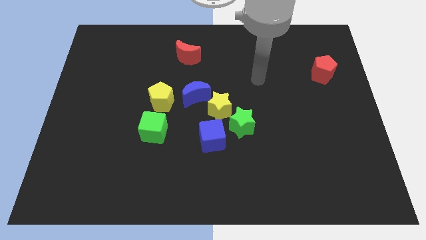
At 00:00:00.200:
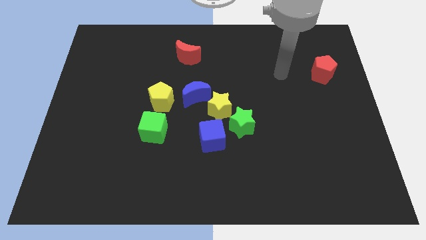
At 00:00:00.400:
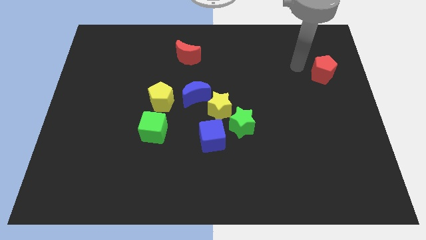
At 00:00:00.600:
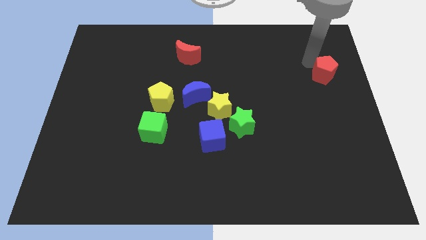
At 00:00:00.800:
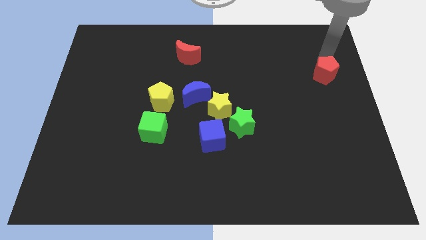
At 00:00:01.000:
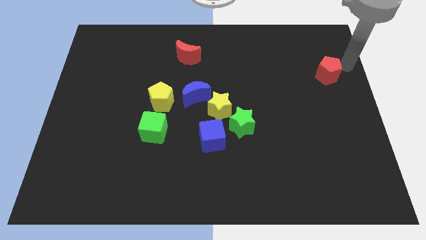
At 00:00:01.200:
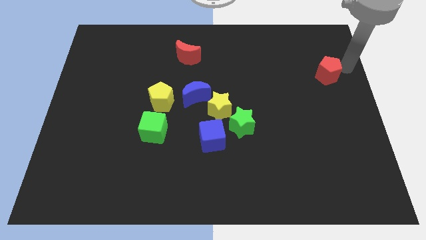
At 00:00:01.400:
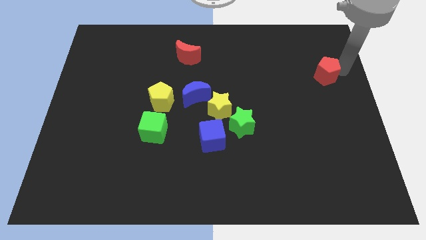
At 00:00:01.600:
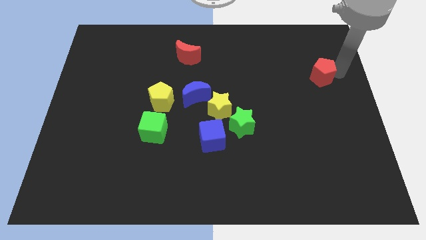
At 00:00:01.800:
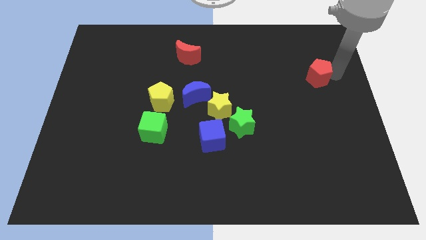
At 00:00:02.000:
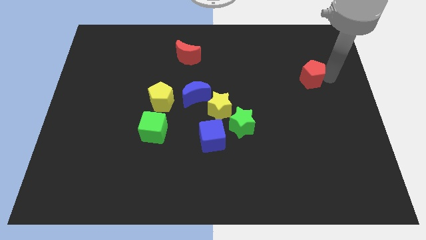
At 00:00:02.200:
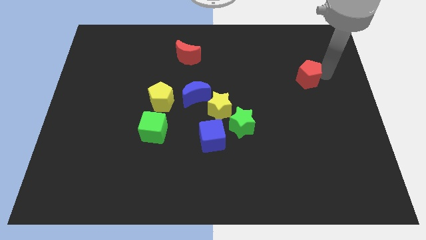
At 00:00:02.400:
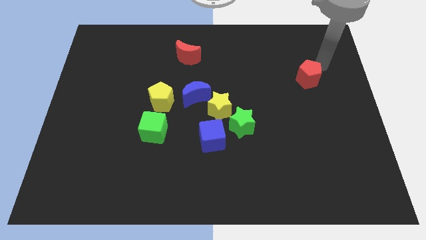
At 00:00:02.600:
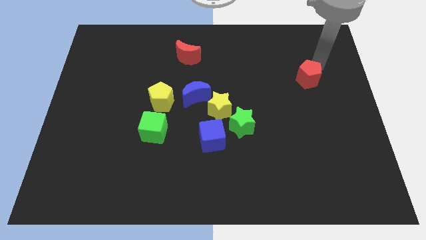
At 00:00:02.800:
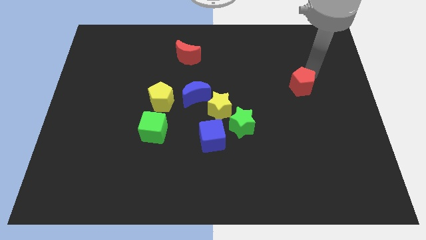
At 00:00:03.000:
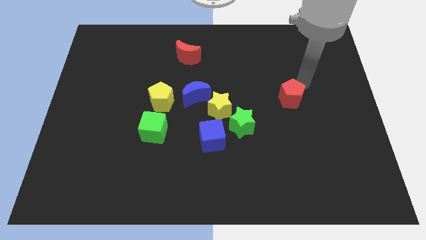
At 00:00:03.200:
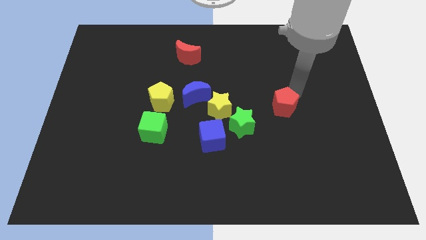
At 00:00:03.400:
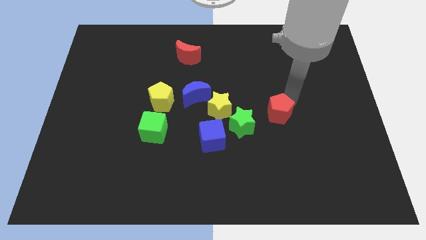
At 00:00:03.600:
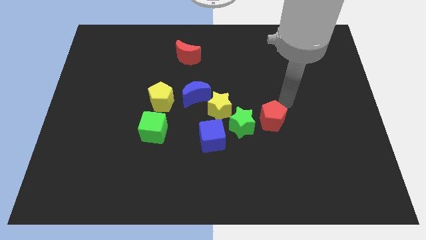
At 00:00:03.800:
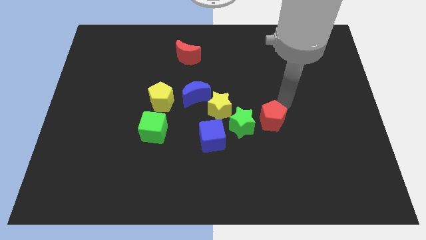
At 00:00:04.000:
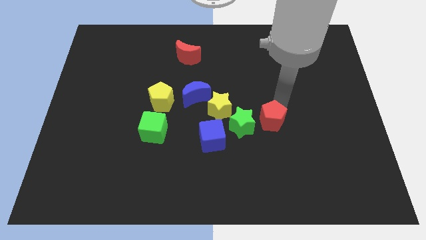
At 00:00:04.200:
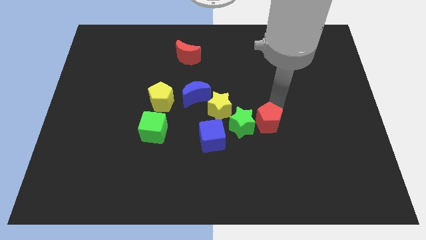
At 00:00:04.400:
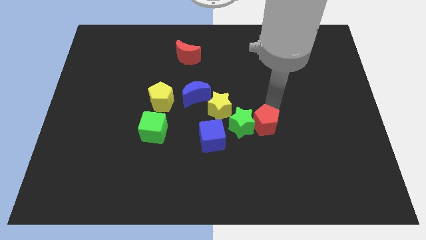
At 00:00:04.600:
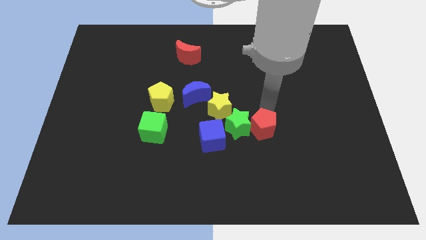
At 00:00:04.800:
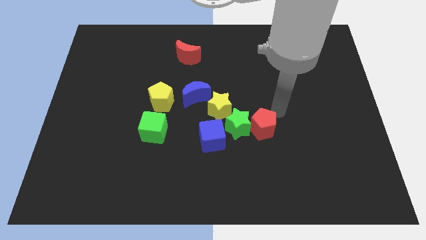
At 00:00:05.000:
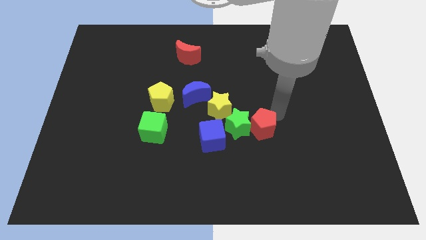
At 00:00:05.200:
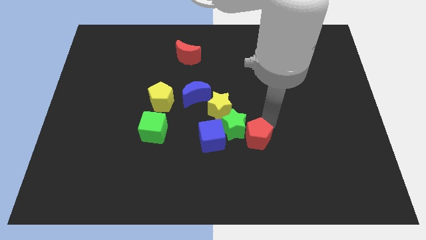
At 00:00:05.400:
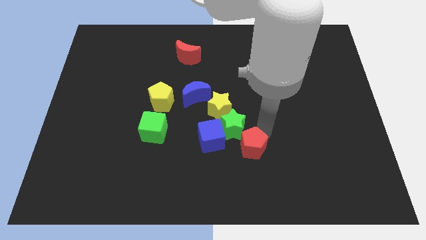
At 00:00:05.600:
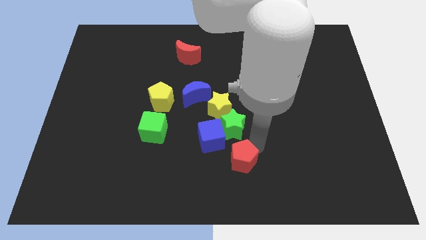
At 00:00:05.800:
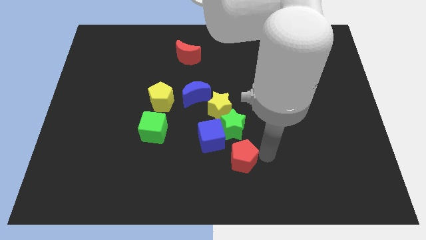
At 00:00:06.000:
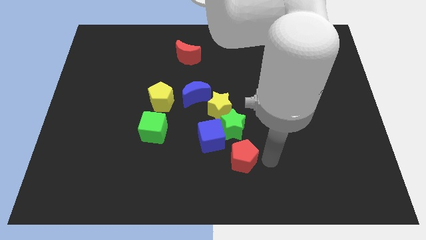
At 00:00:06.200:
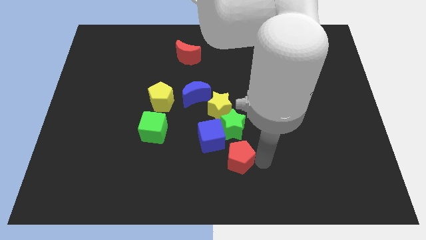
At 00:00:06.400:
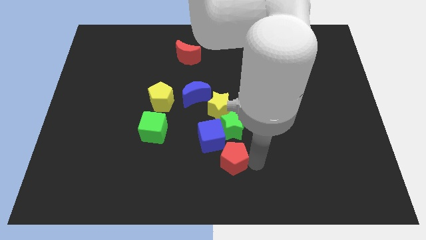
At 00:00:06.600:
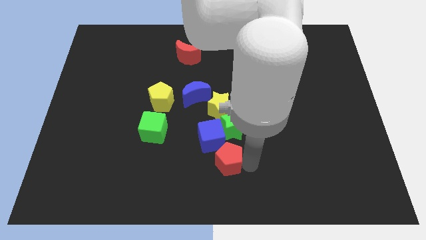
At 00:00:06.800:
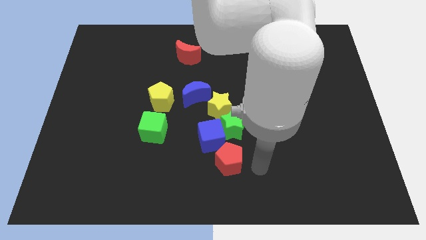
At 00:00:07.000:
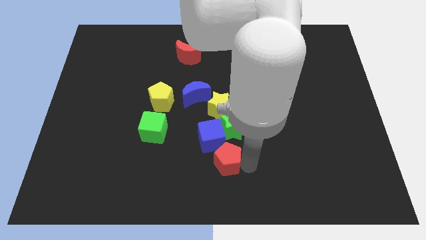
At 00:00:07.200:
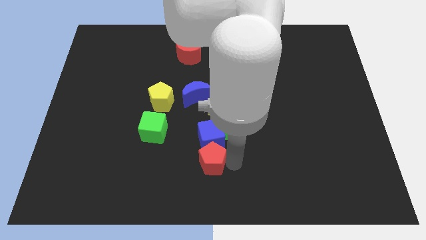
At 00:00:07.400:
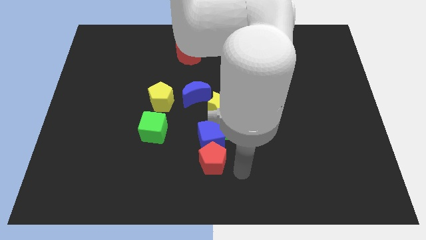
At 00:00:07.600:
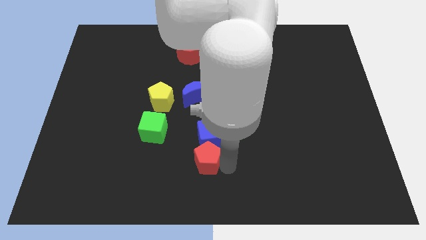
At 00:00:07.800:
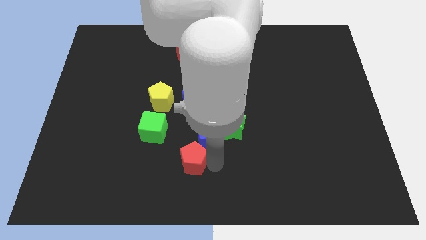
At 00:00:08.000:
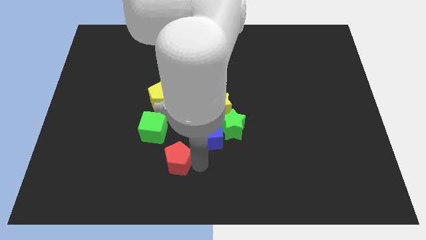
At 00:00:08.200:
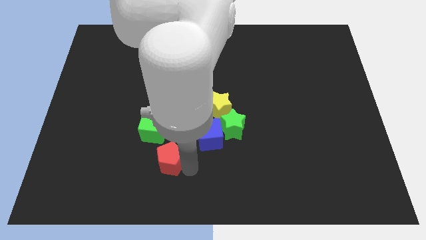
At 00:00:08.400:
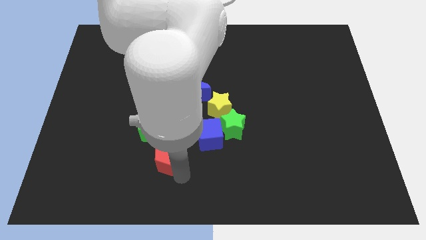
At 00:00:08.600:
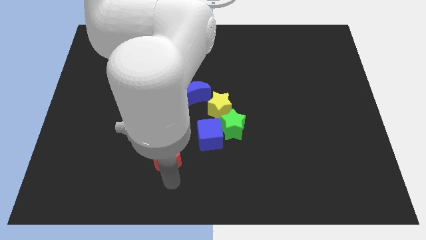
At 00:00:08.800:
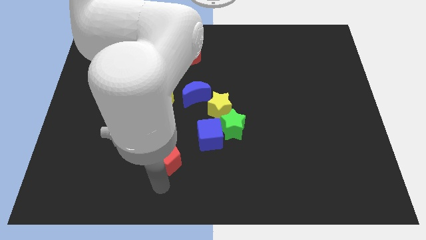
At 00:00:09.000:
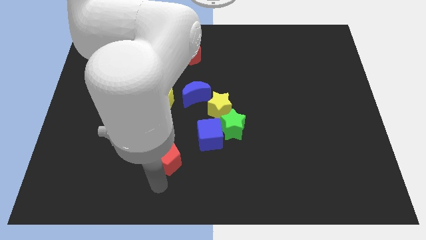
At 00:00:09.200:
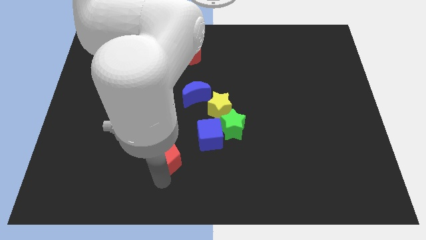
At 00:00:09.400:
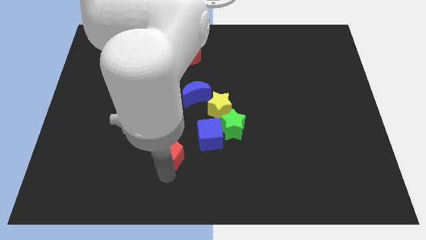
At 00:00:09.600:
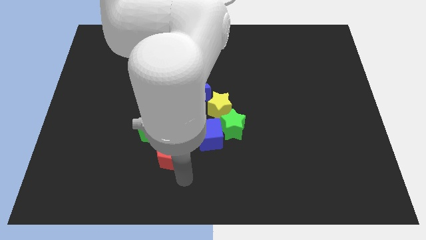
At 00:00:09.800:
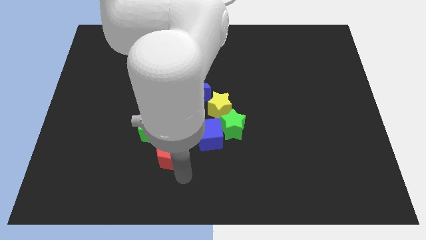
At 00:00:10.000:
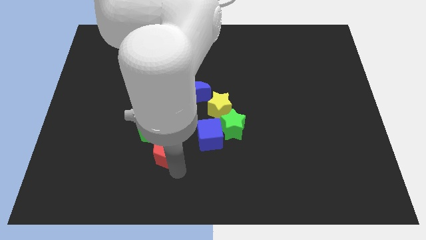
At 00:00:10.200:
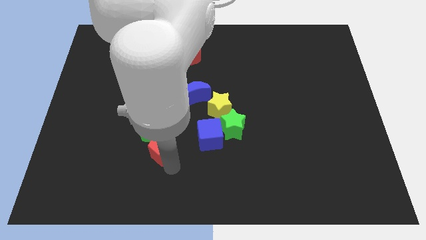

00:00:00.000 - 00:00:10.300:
slide the red pentagon close to the green cube

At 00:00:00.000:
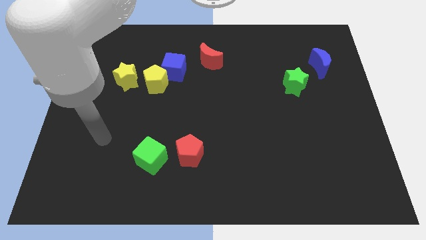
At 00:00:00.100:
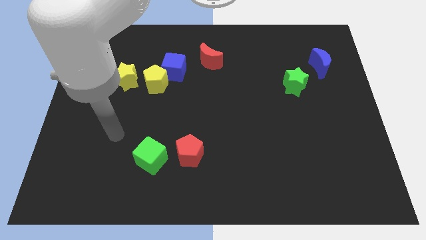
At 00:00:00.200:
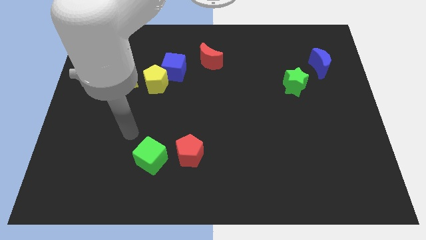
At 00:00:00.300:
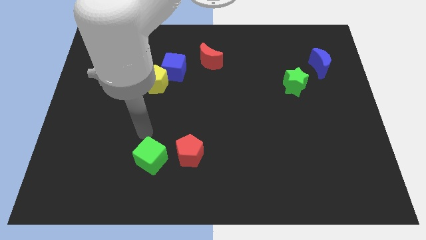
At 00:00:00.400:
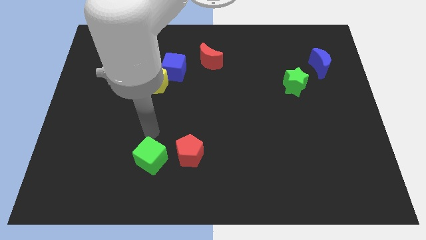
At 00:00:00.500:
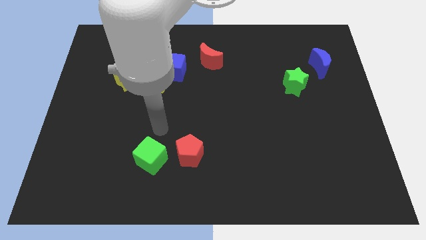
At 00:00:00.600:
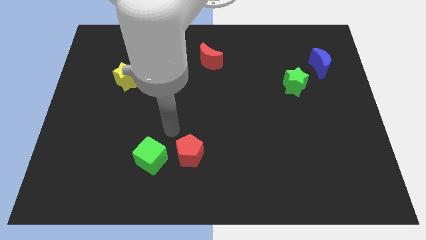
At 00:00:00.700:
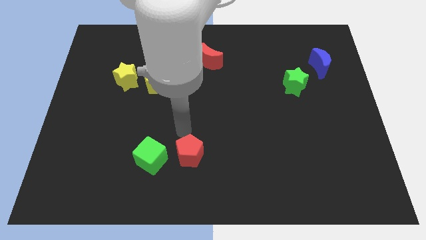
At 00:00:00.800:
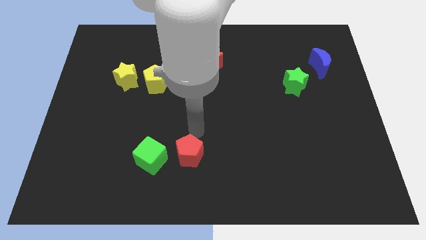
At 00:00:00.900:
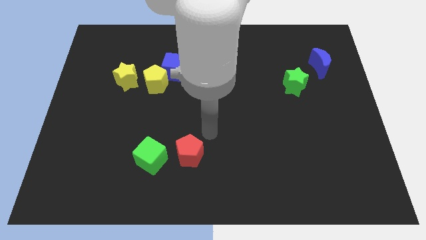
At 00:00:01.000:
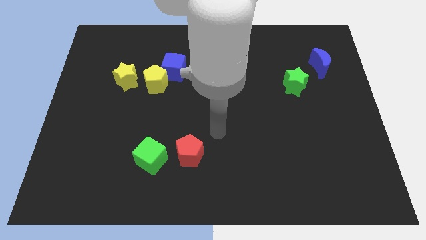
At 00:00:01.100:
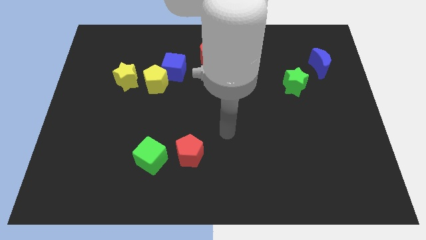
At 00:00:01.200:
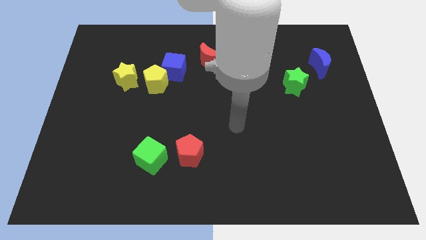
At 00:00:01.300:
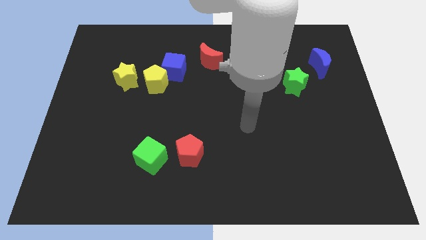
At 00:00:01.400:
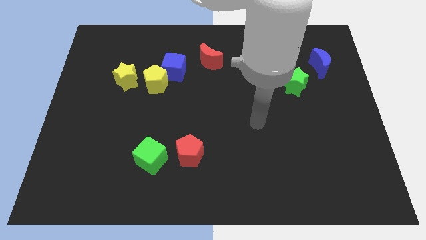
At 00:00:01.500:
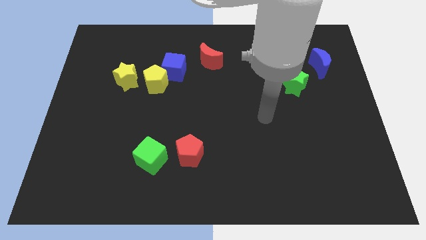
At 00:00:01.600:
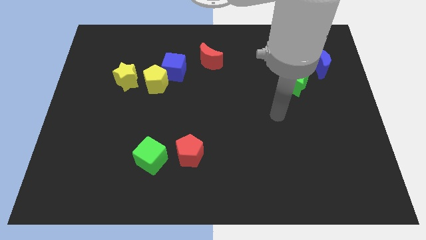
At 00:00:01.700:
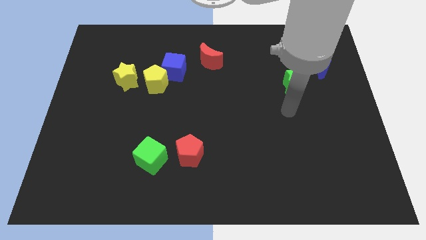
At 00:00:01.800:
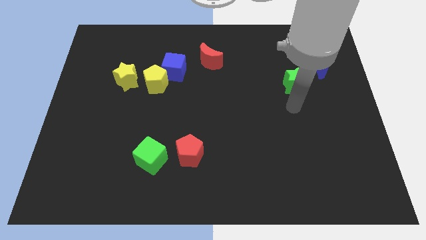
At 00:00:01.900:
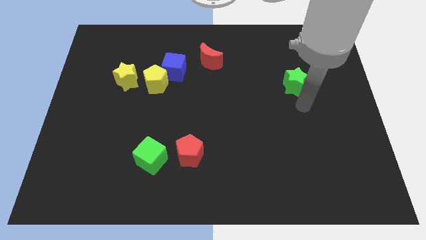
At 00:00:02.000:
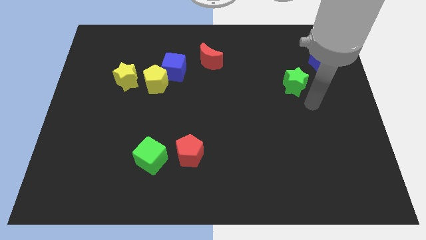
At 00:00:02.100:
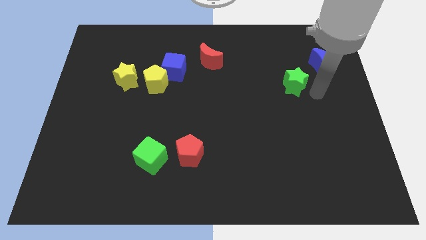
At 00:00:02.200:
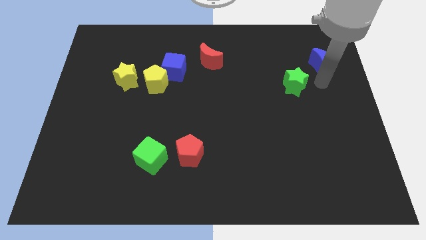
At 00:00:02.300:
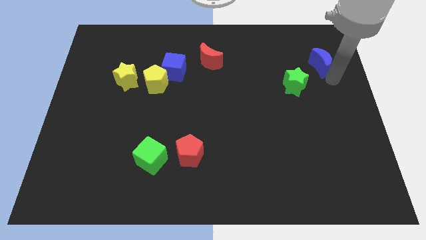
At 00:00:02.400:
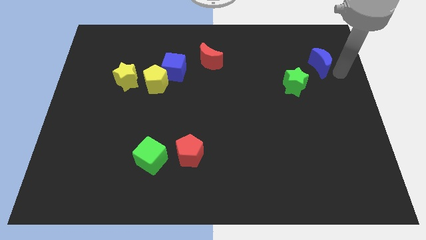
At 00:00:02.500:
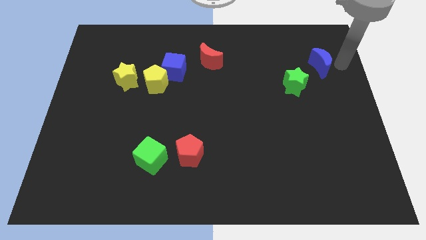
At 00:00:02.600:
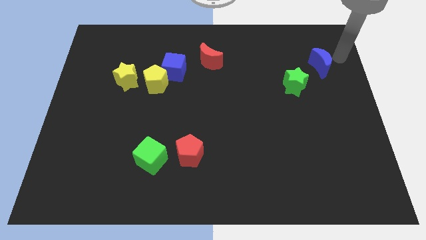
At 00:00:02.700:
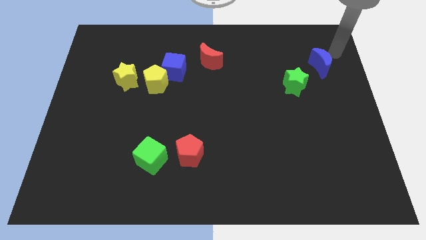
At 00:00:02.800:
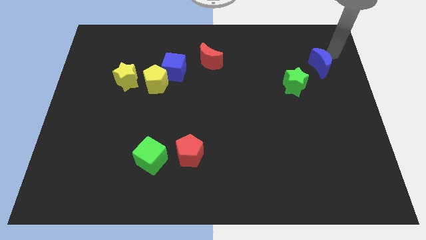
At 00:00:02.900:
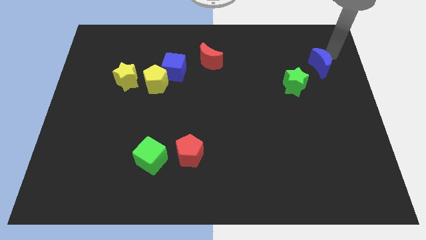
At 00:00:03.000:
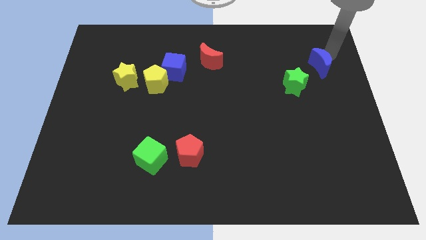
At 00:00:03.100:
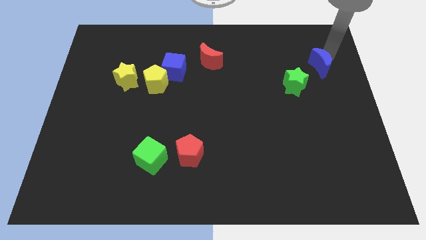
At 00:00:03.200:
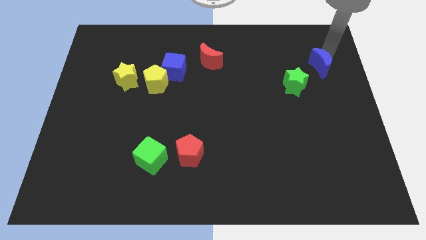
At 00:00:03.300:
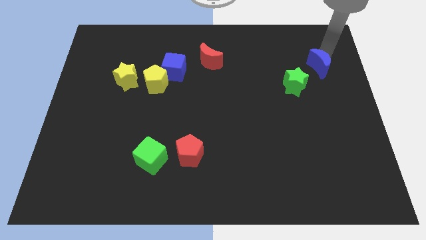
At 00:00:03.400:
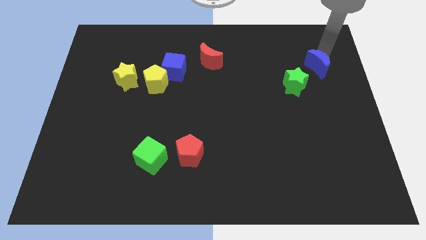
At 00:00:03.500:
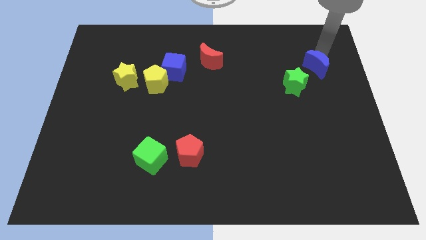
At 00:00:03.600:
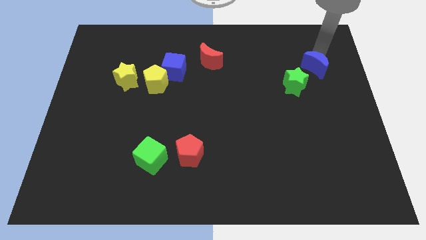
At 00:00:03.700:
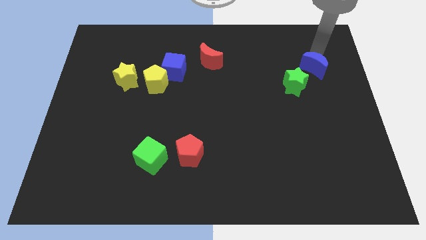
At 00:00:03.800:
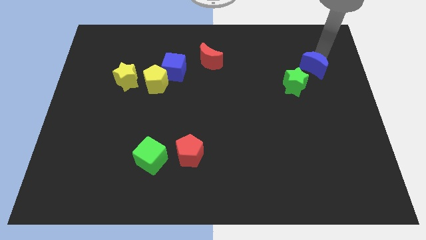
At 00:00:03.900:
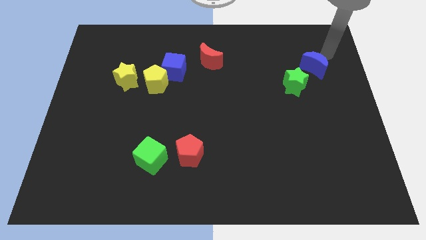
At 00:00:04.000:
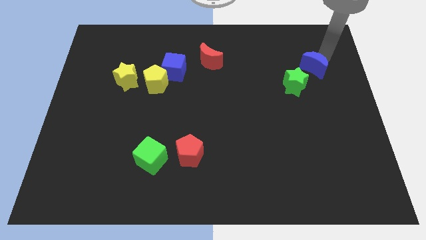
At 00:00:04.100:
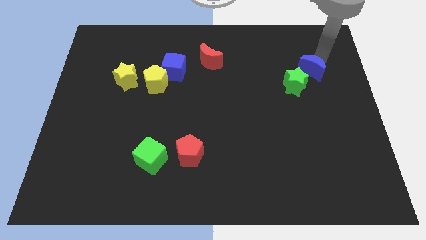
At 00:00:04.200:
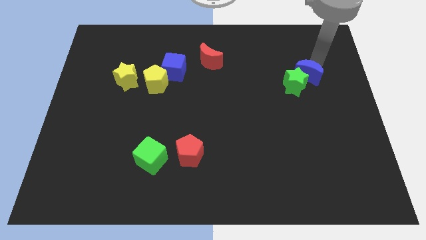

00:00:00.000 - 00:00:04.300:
move the blue moon to the green star
